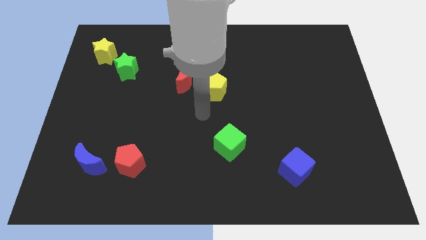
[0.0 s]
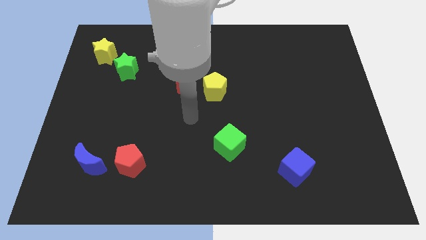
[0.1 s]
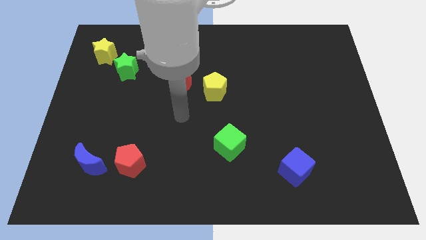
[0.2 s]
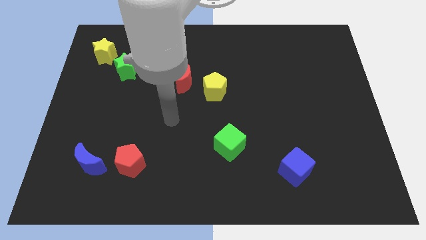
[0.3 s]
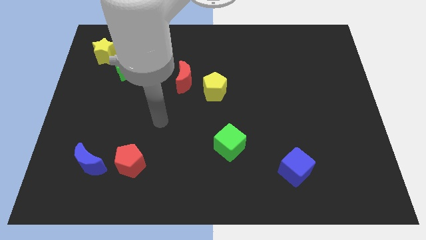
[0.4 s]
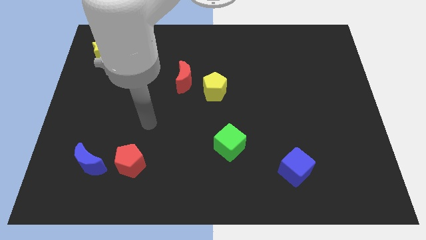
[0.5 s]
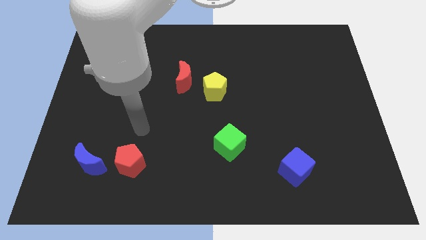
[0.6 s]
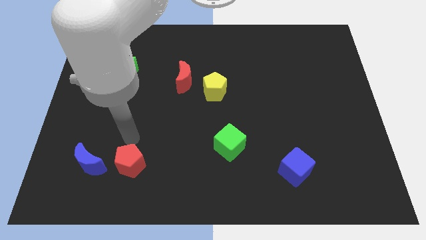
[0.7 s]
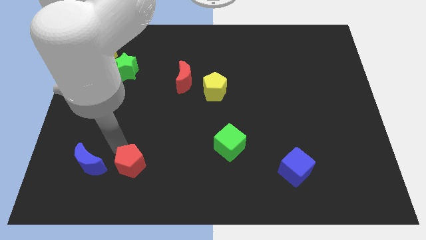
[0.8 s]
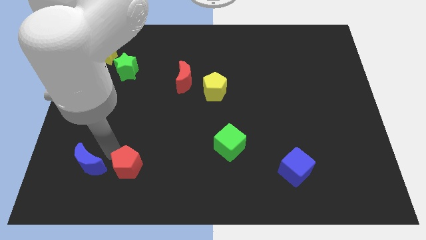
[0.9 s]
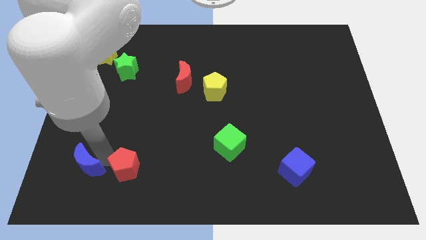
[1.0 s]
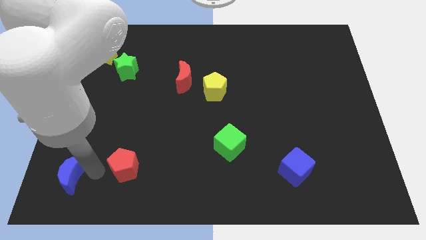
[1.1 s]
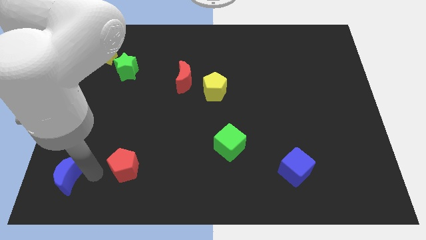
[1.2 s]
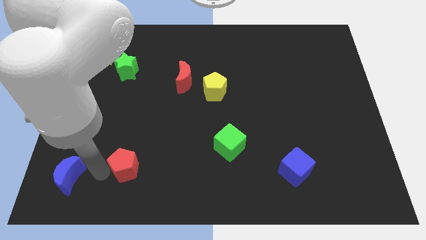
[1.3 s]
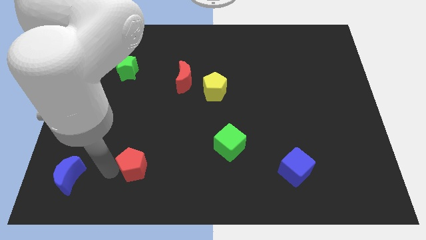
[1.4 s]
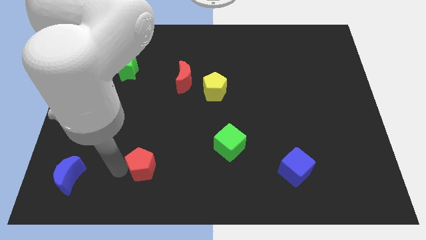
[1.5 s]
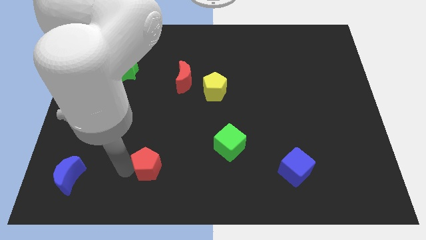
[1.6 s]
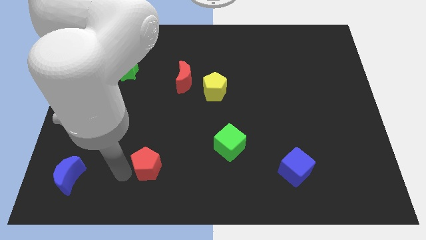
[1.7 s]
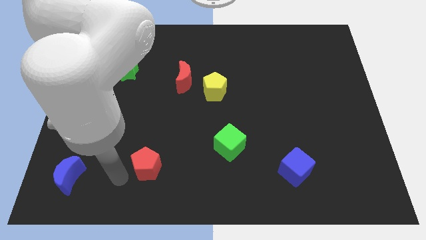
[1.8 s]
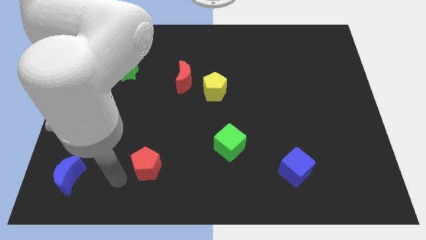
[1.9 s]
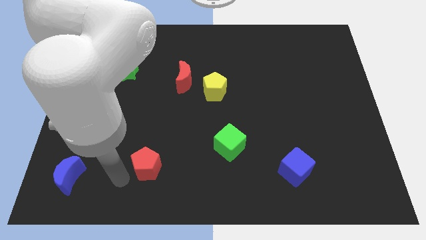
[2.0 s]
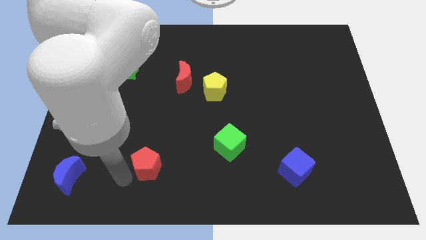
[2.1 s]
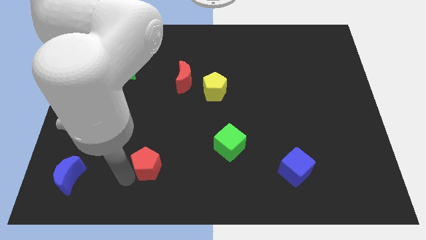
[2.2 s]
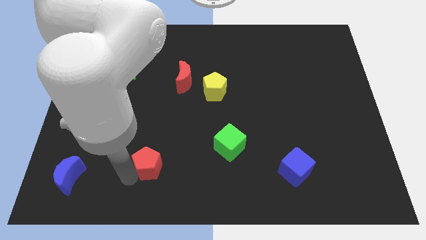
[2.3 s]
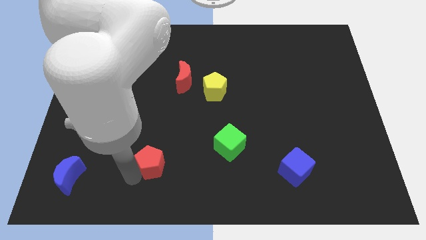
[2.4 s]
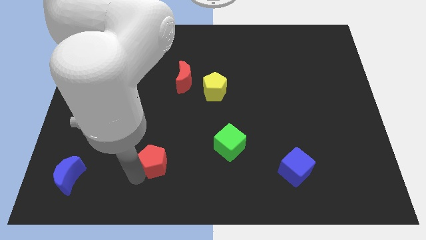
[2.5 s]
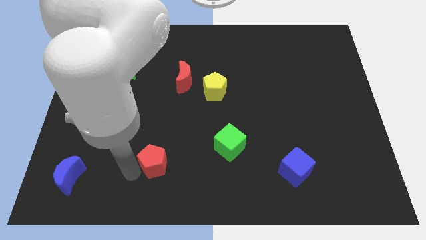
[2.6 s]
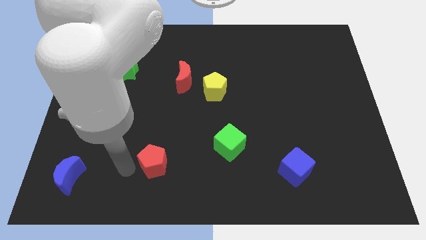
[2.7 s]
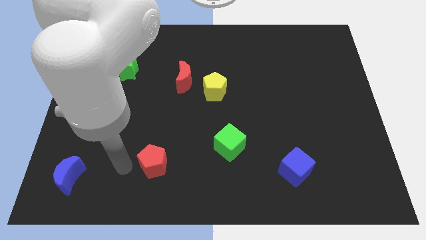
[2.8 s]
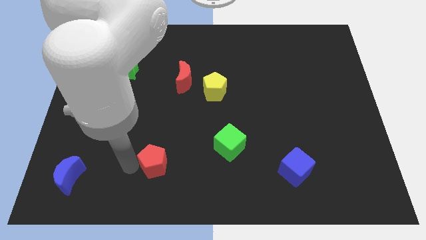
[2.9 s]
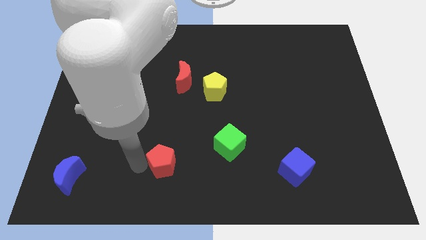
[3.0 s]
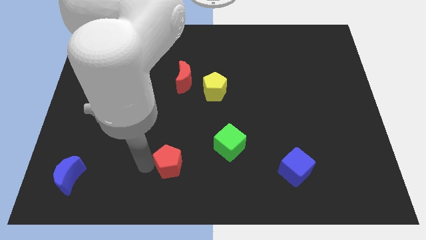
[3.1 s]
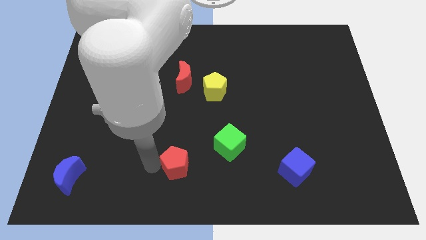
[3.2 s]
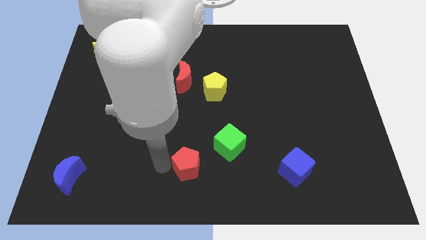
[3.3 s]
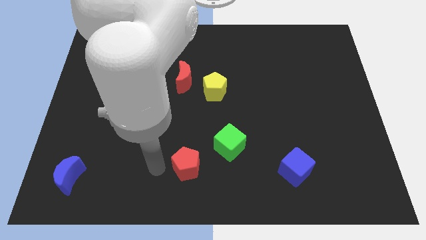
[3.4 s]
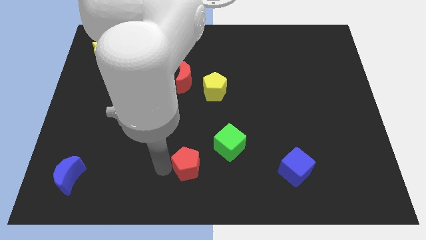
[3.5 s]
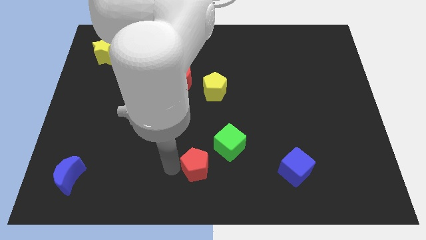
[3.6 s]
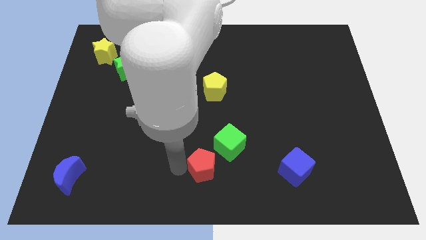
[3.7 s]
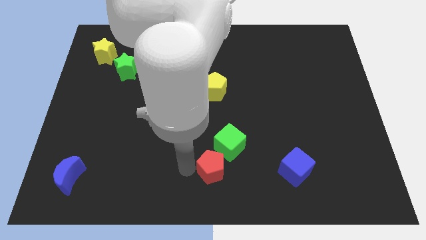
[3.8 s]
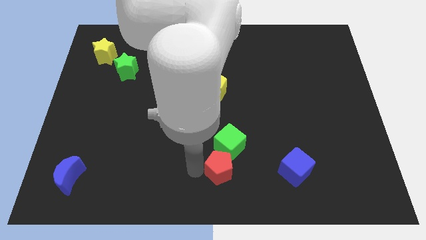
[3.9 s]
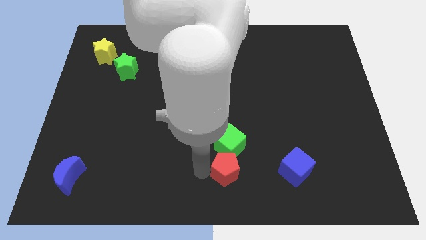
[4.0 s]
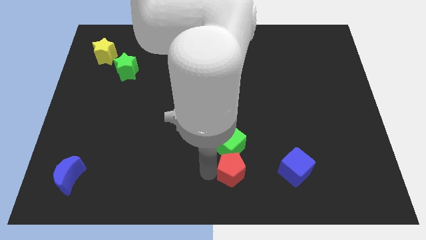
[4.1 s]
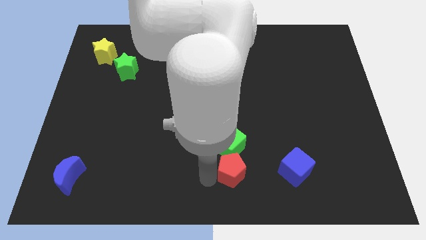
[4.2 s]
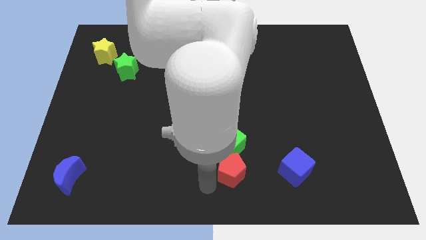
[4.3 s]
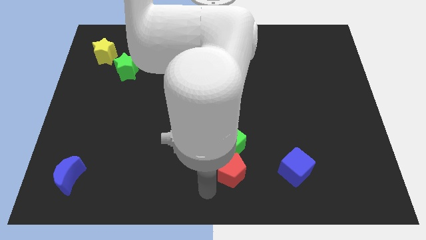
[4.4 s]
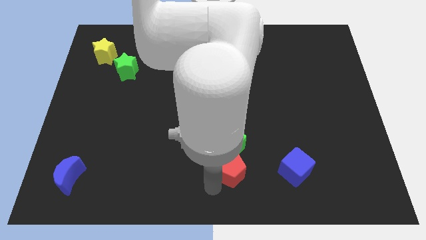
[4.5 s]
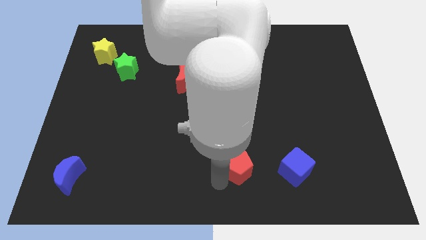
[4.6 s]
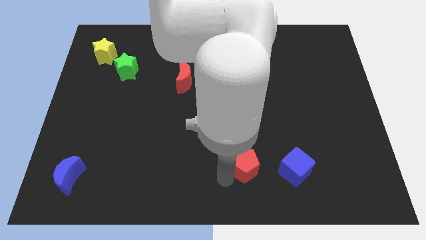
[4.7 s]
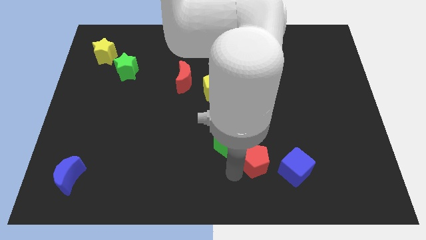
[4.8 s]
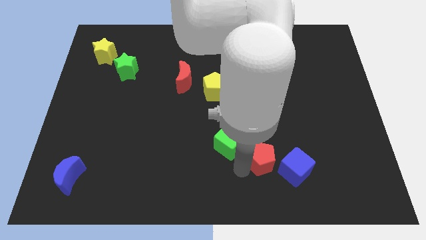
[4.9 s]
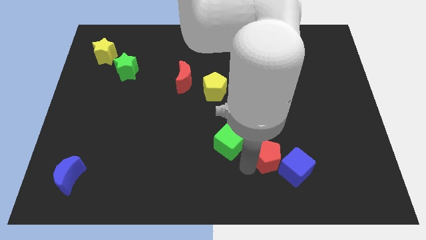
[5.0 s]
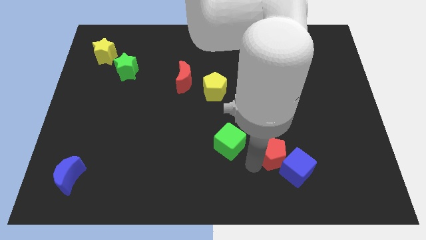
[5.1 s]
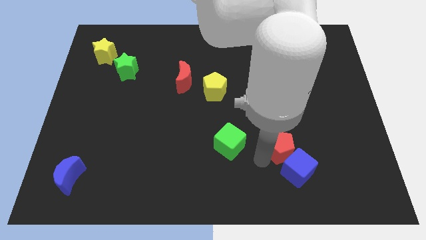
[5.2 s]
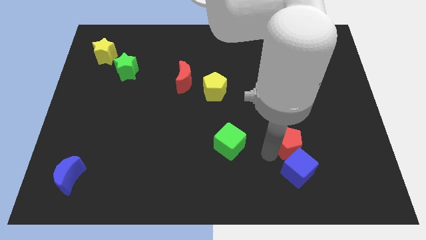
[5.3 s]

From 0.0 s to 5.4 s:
move the red pentagon to the top right side of the blue cube
